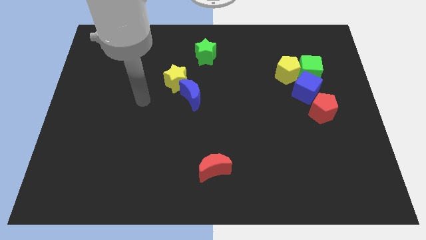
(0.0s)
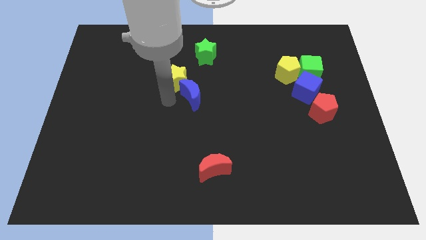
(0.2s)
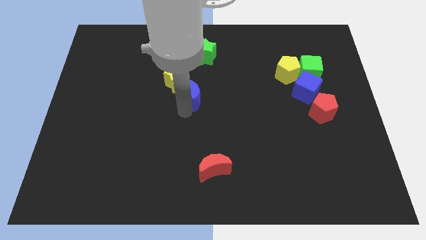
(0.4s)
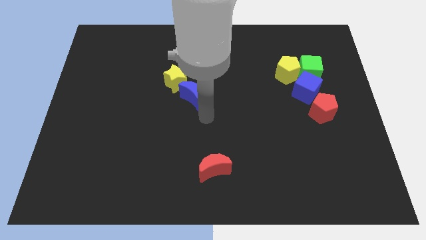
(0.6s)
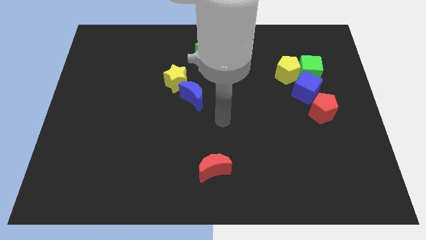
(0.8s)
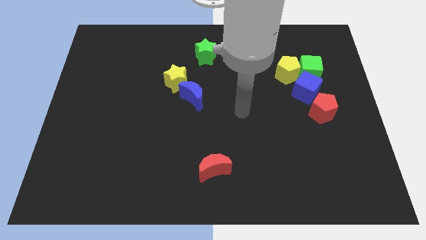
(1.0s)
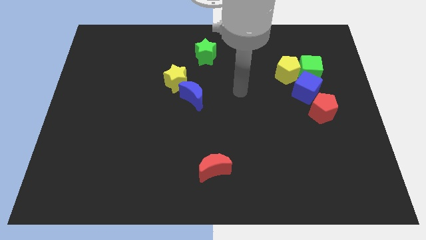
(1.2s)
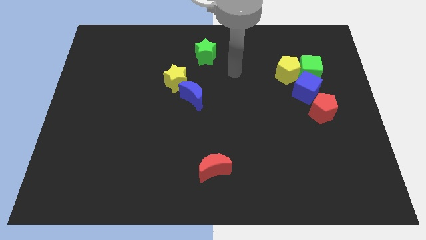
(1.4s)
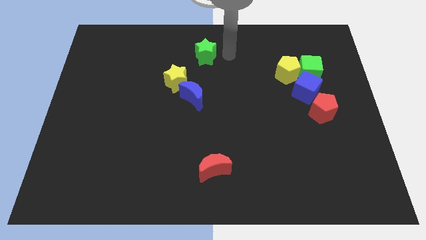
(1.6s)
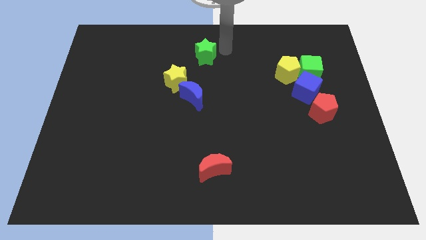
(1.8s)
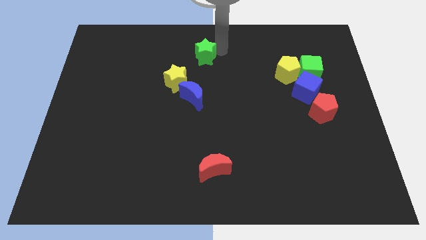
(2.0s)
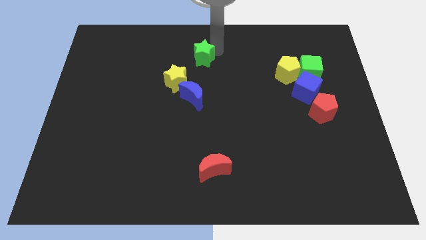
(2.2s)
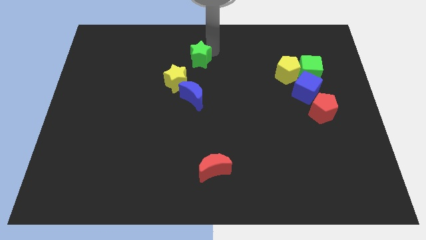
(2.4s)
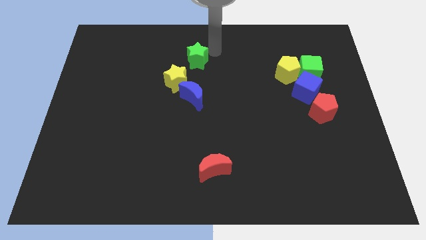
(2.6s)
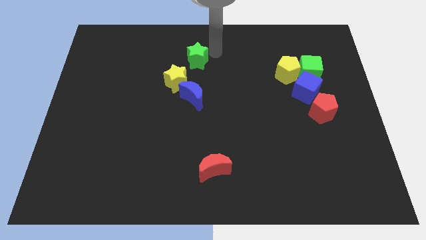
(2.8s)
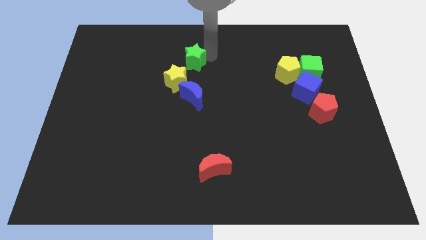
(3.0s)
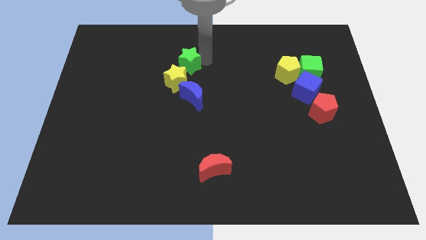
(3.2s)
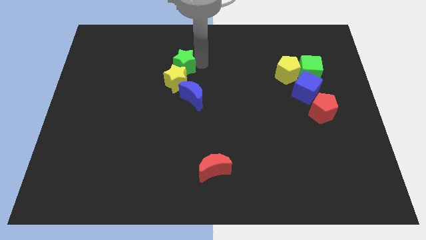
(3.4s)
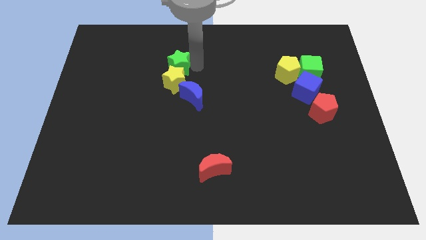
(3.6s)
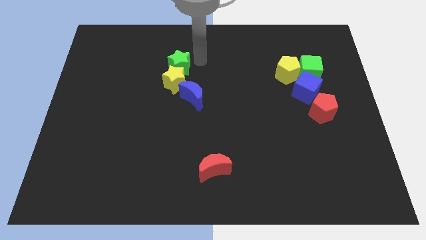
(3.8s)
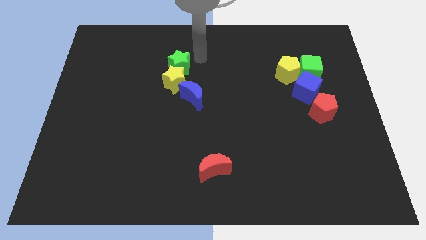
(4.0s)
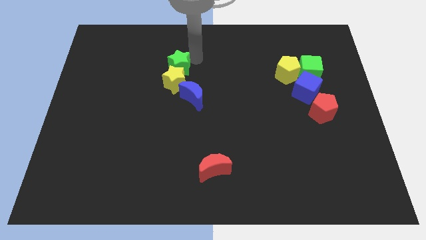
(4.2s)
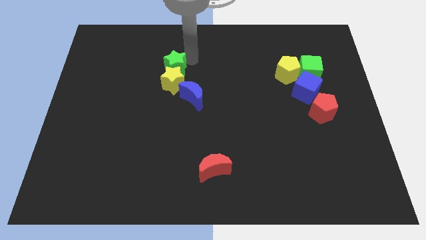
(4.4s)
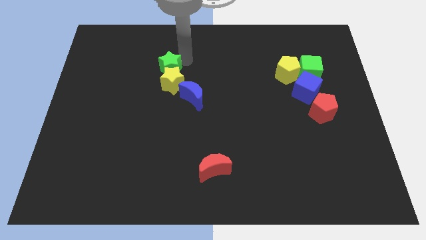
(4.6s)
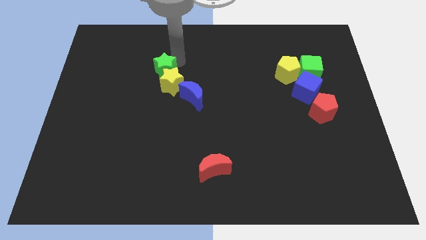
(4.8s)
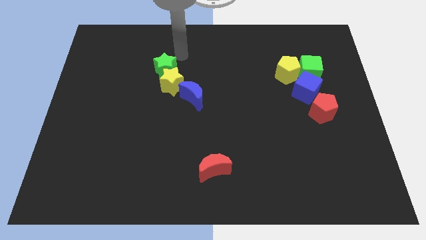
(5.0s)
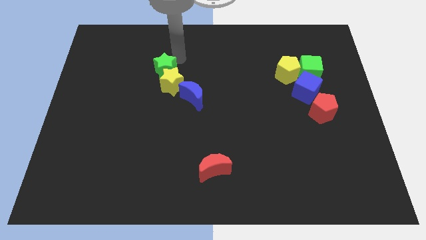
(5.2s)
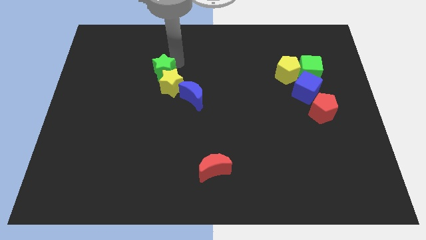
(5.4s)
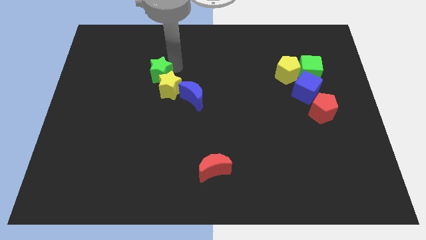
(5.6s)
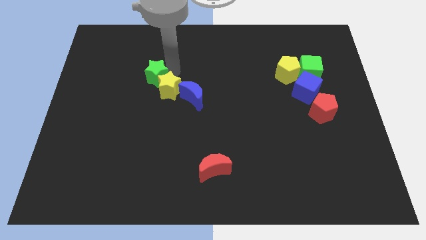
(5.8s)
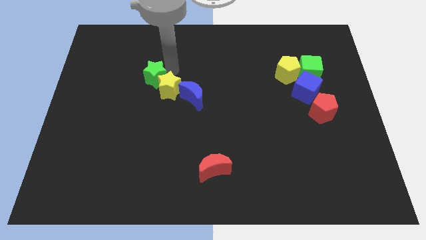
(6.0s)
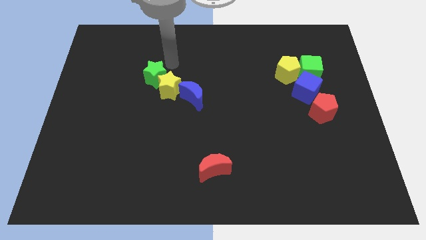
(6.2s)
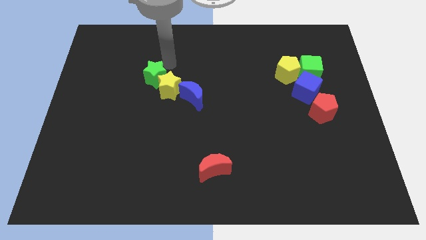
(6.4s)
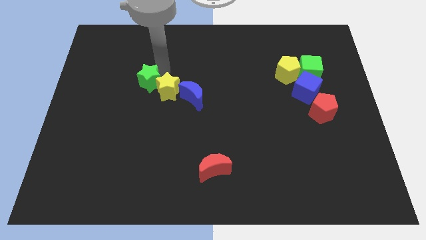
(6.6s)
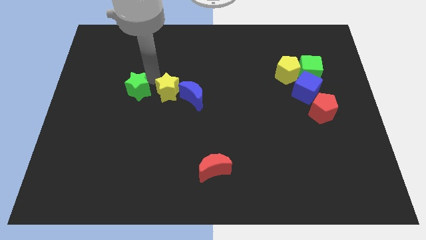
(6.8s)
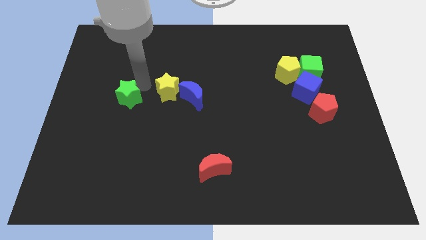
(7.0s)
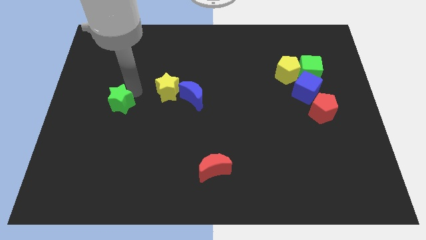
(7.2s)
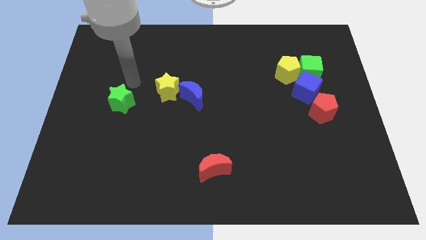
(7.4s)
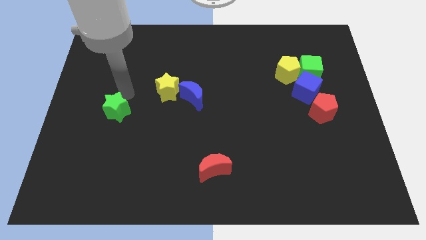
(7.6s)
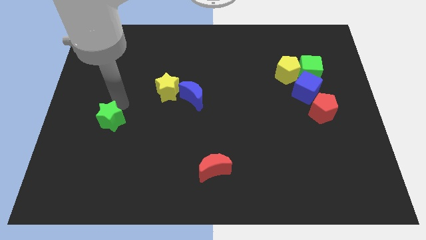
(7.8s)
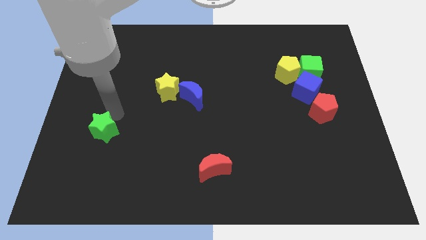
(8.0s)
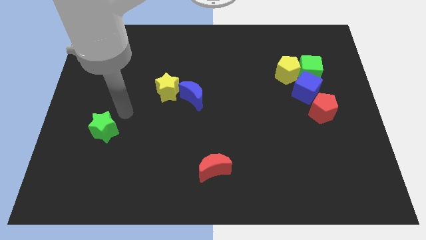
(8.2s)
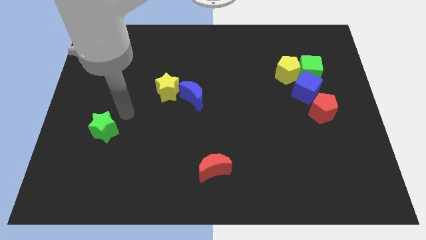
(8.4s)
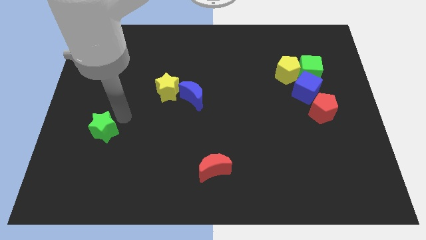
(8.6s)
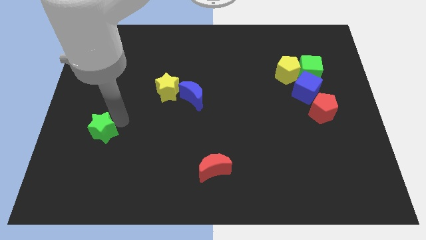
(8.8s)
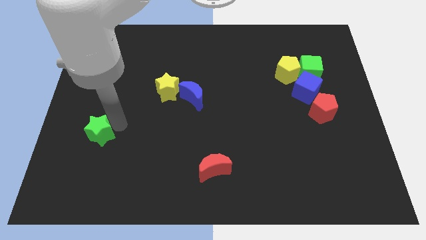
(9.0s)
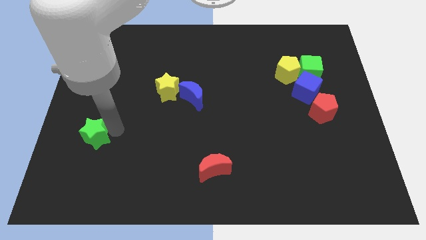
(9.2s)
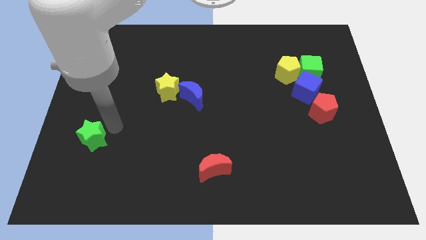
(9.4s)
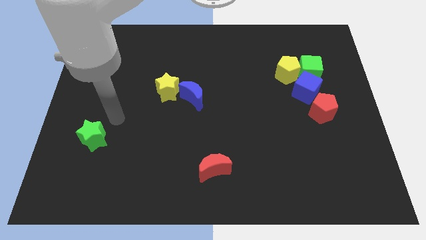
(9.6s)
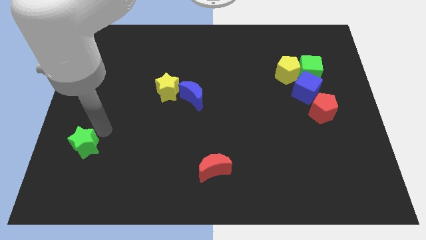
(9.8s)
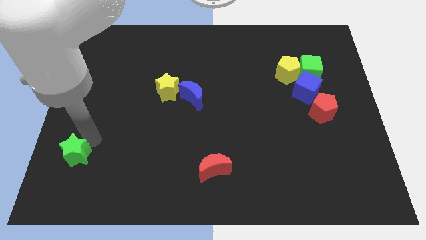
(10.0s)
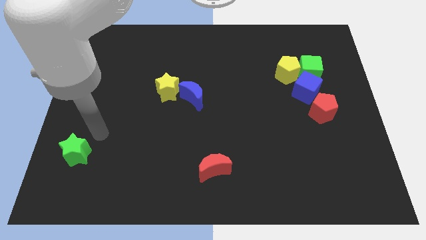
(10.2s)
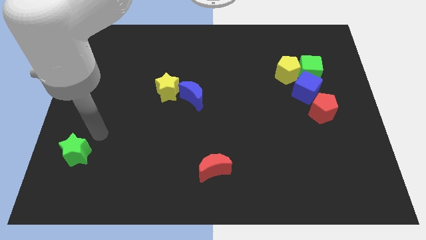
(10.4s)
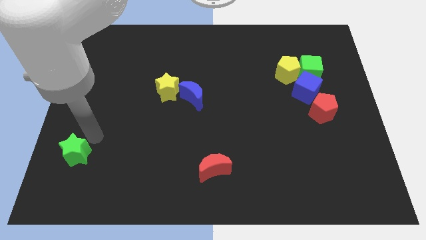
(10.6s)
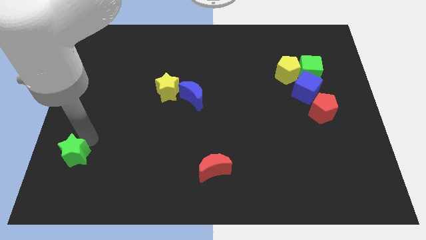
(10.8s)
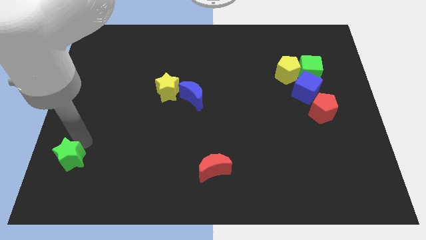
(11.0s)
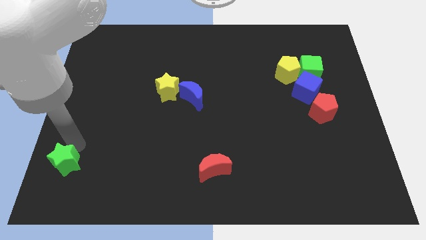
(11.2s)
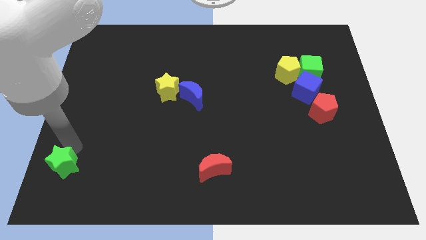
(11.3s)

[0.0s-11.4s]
put the green star to the lower left corner
